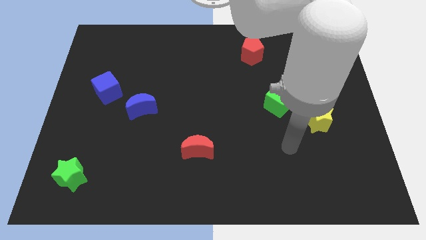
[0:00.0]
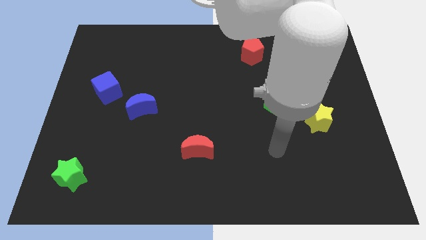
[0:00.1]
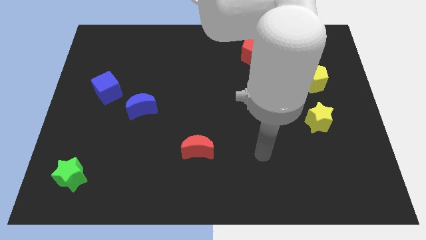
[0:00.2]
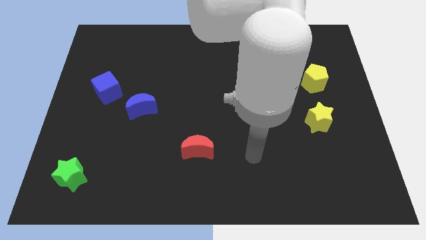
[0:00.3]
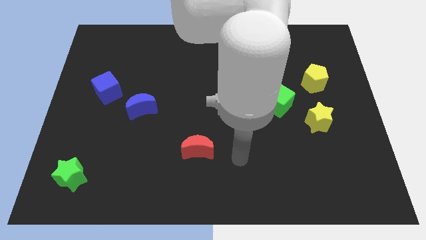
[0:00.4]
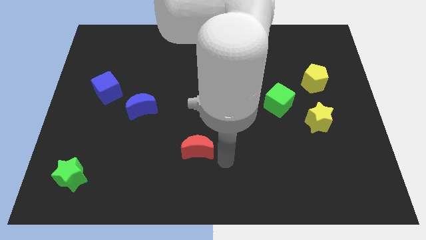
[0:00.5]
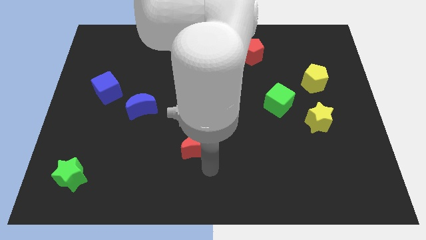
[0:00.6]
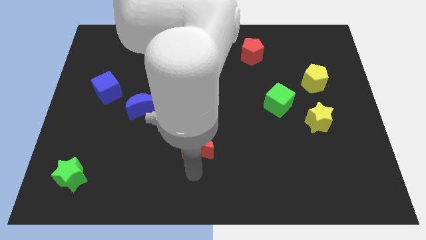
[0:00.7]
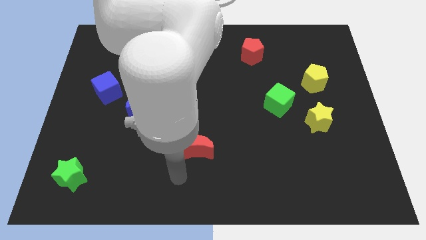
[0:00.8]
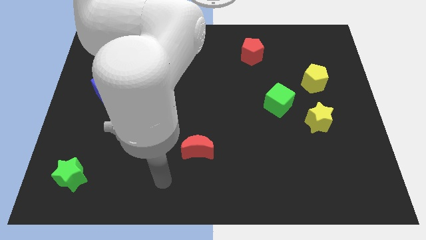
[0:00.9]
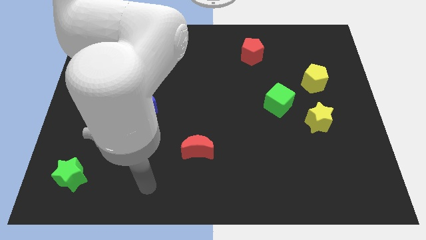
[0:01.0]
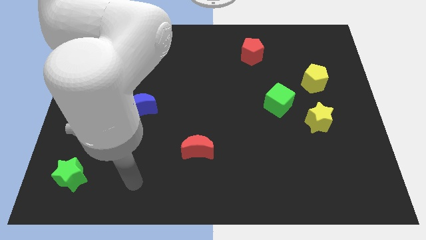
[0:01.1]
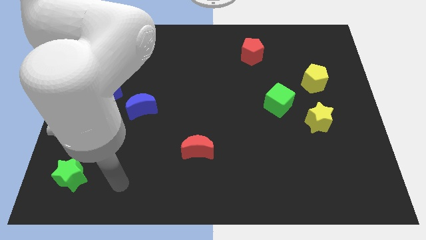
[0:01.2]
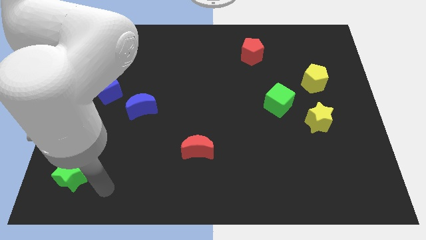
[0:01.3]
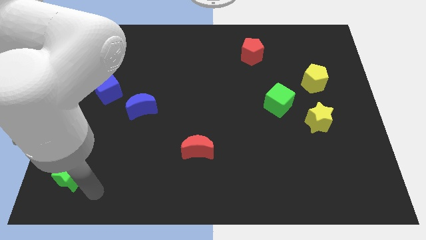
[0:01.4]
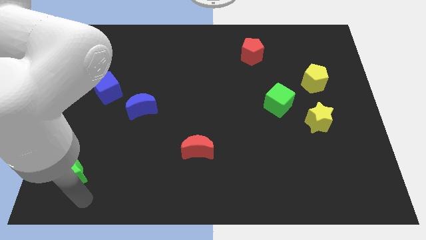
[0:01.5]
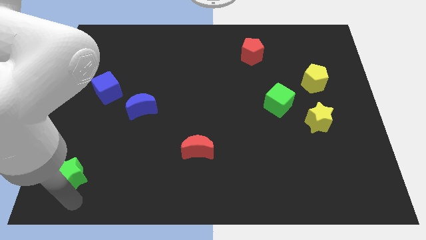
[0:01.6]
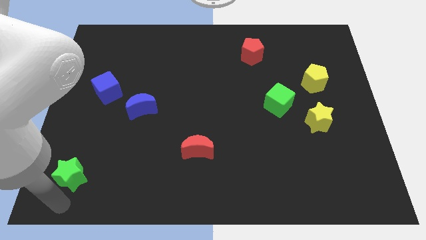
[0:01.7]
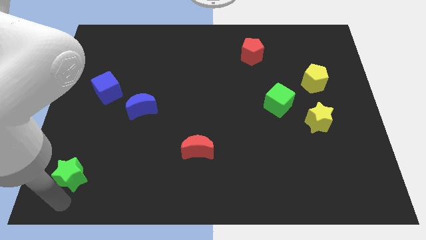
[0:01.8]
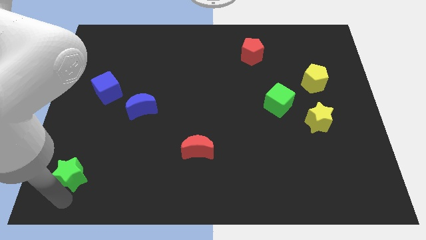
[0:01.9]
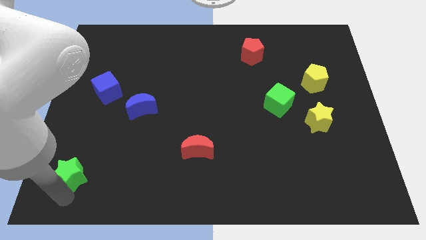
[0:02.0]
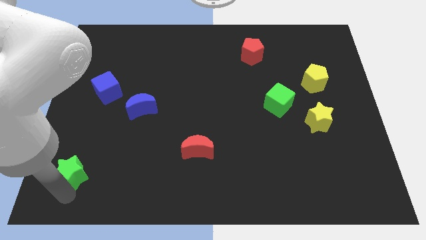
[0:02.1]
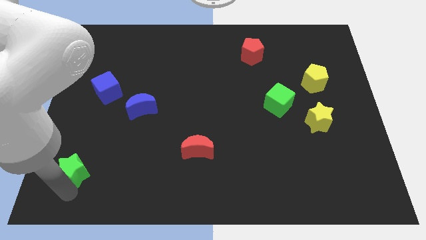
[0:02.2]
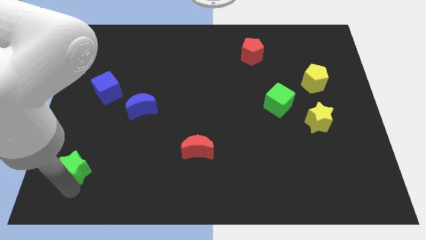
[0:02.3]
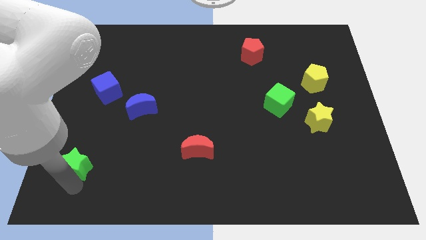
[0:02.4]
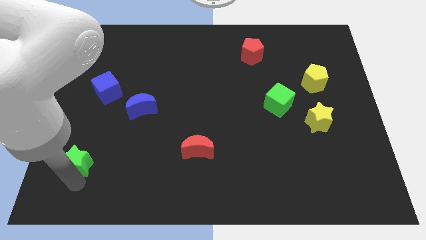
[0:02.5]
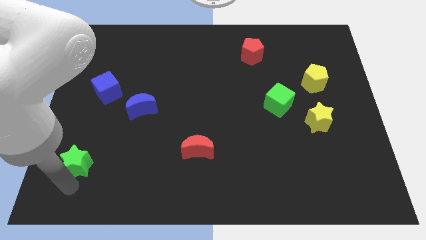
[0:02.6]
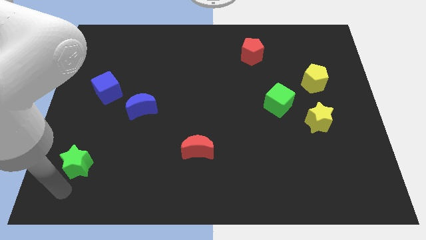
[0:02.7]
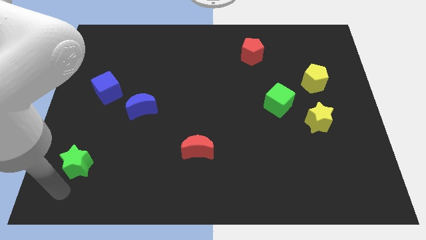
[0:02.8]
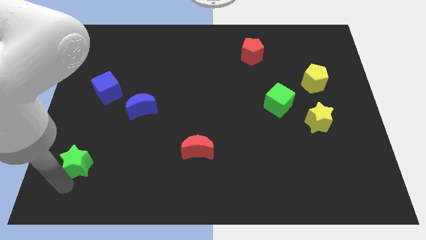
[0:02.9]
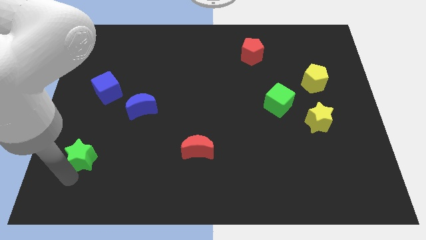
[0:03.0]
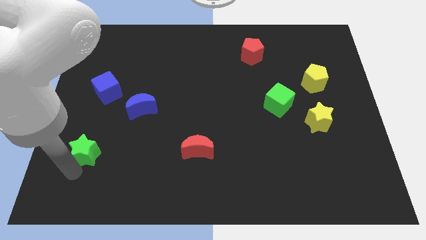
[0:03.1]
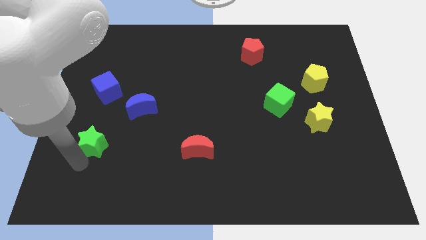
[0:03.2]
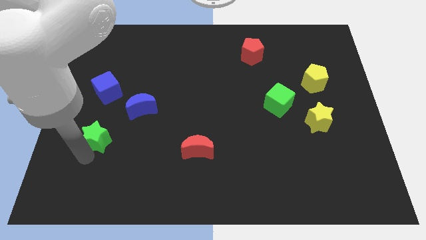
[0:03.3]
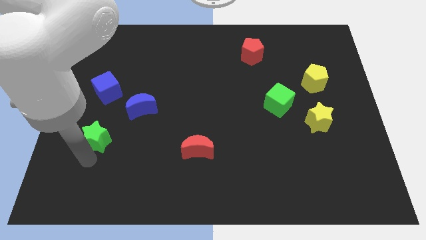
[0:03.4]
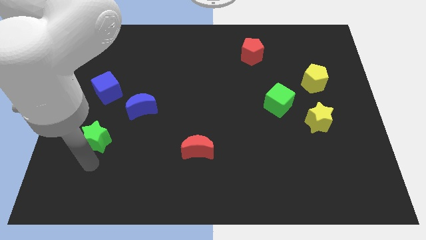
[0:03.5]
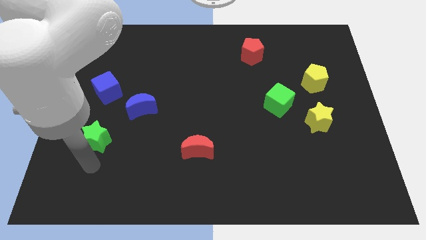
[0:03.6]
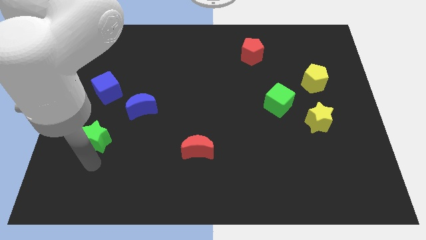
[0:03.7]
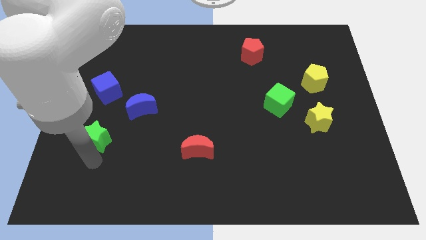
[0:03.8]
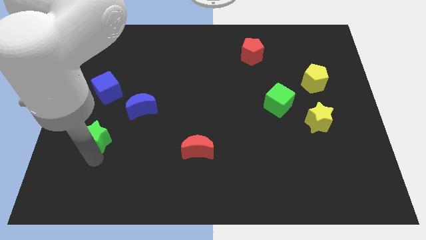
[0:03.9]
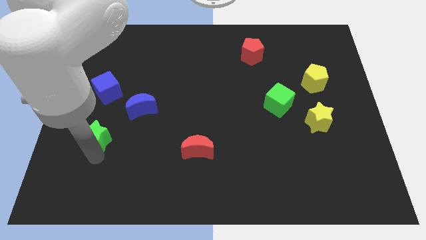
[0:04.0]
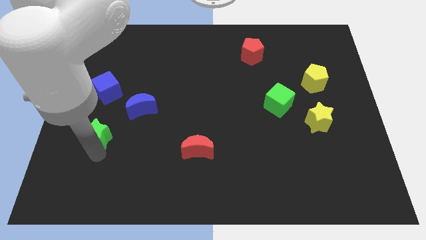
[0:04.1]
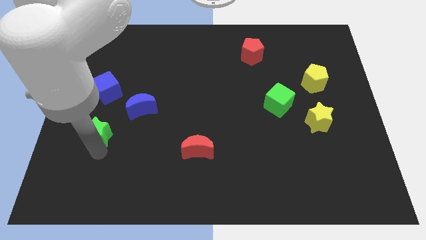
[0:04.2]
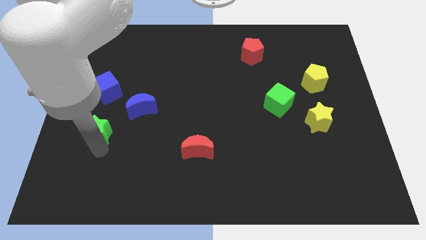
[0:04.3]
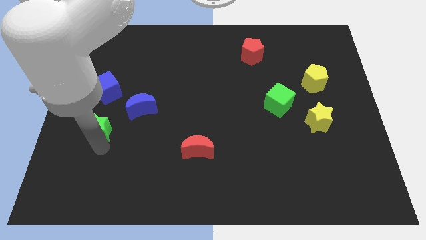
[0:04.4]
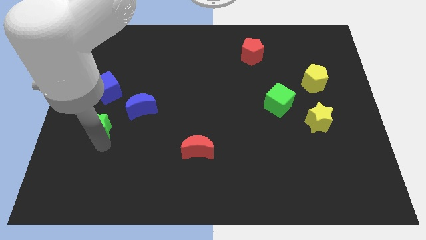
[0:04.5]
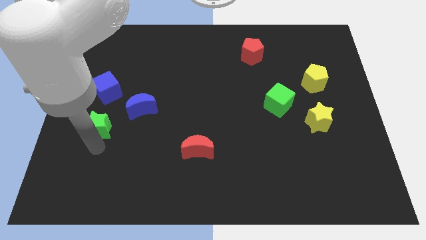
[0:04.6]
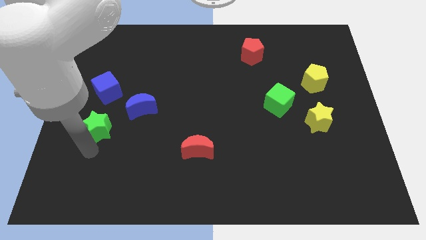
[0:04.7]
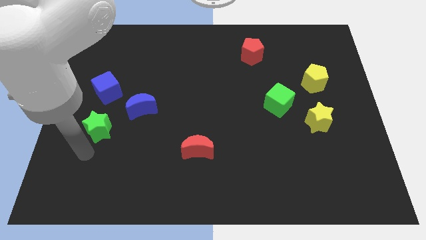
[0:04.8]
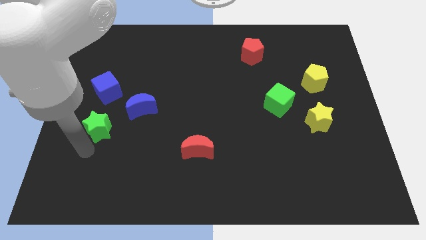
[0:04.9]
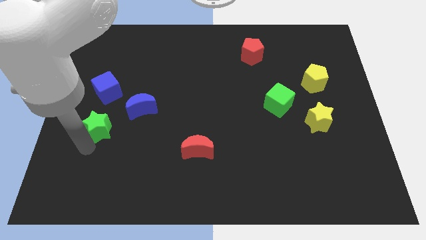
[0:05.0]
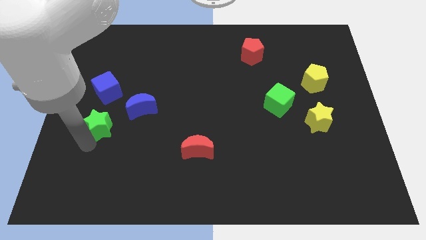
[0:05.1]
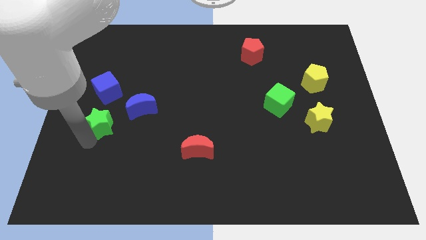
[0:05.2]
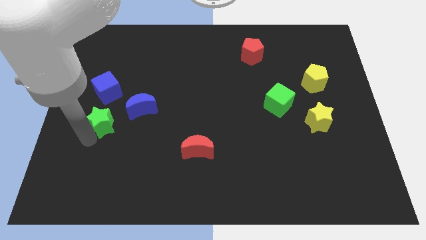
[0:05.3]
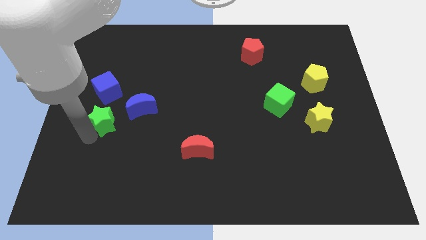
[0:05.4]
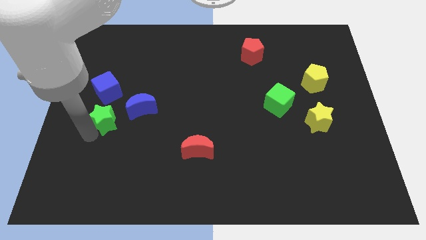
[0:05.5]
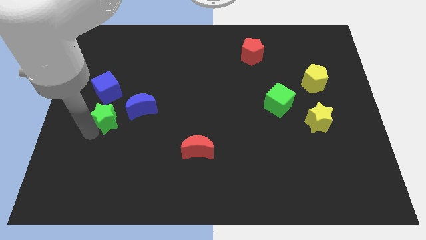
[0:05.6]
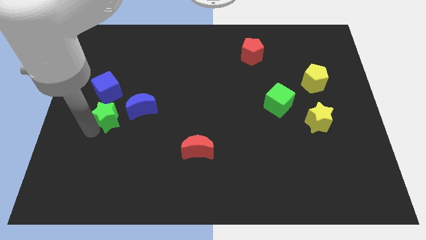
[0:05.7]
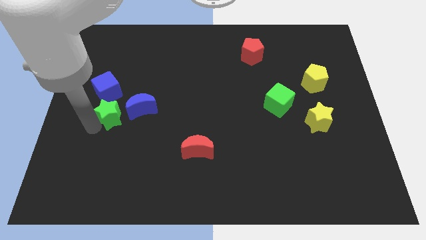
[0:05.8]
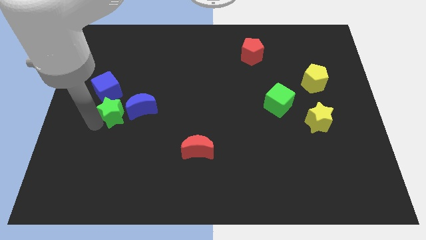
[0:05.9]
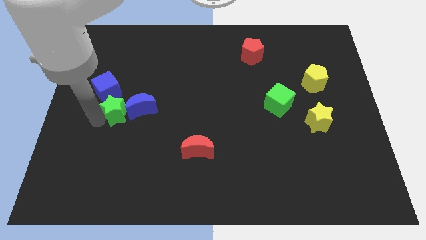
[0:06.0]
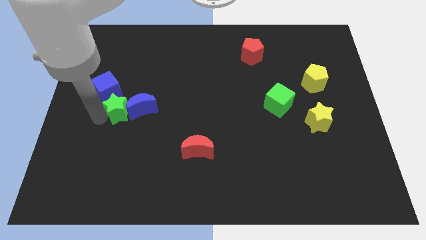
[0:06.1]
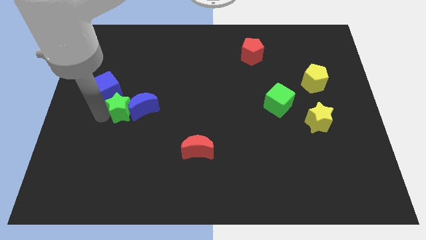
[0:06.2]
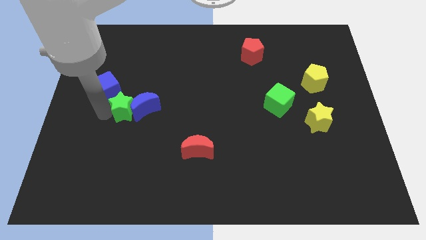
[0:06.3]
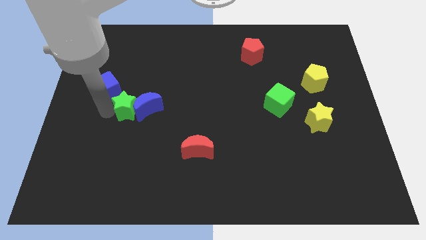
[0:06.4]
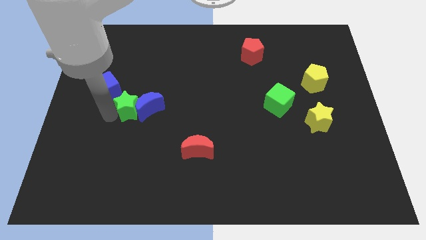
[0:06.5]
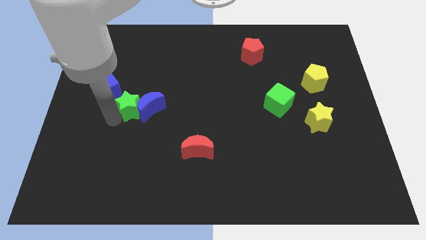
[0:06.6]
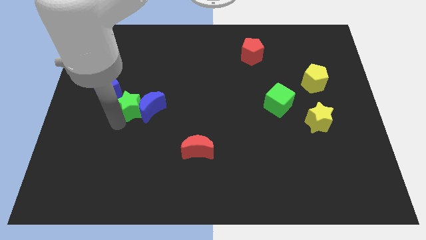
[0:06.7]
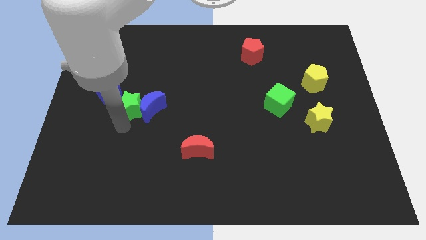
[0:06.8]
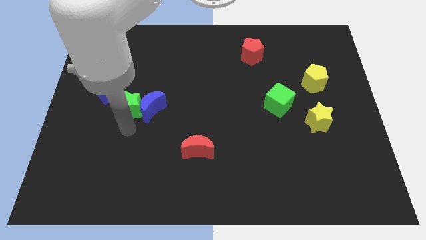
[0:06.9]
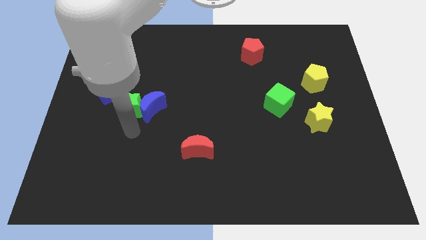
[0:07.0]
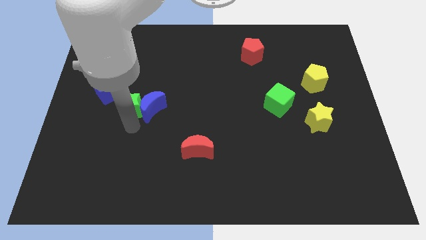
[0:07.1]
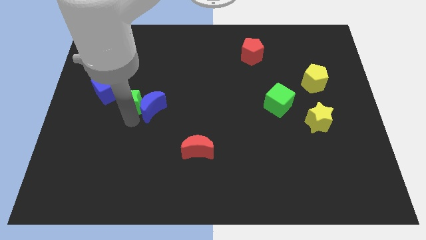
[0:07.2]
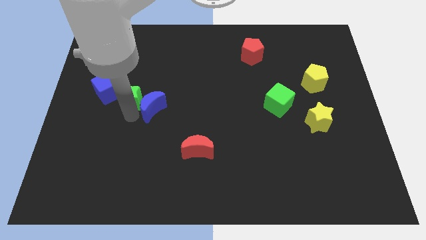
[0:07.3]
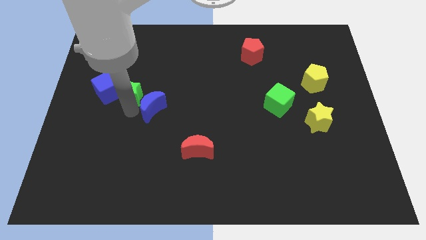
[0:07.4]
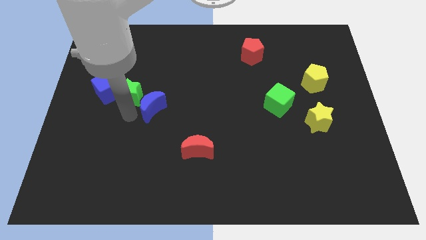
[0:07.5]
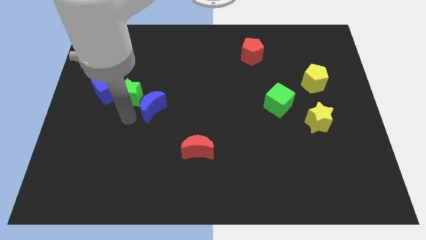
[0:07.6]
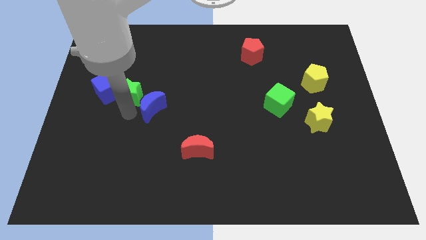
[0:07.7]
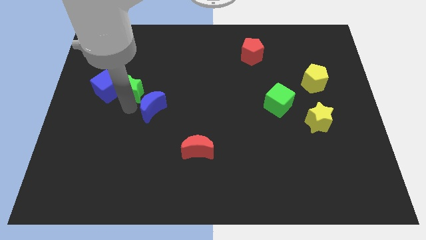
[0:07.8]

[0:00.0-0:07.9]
put the green star to the top right of the blue cube
